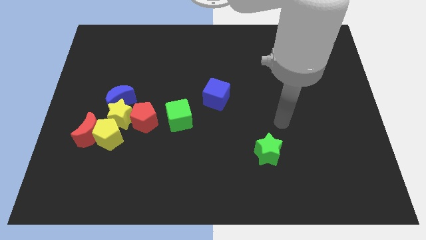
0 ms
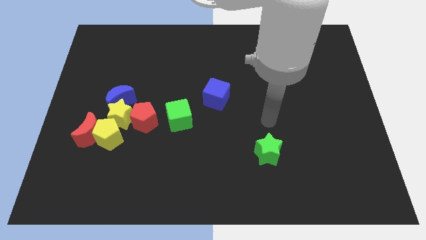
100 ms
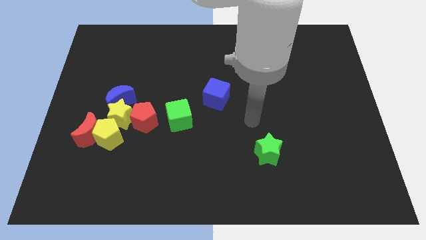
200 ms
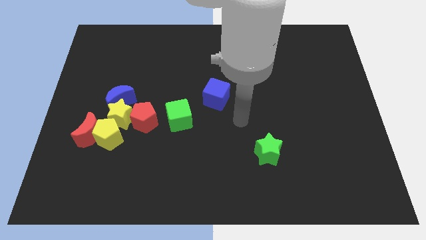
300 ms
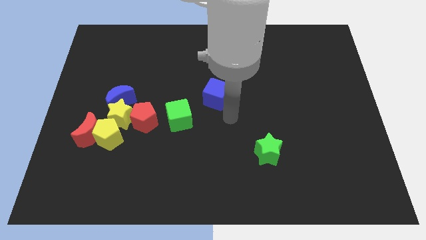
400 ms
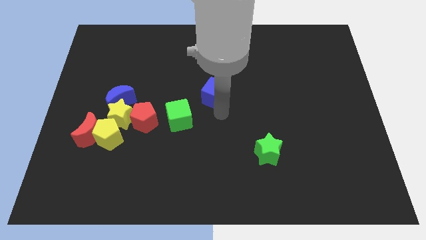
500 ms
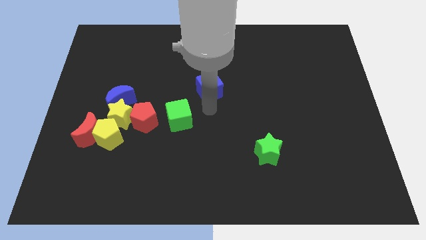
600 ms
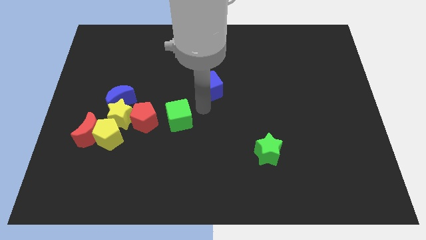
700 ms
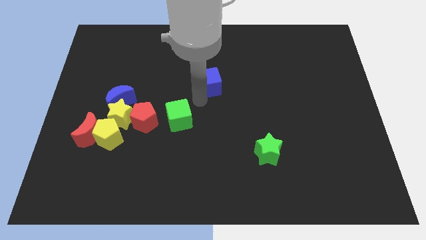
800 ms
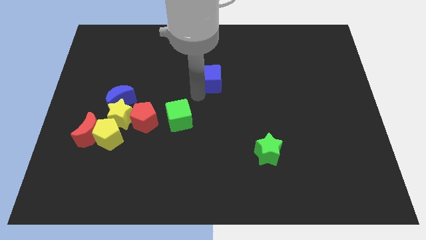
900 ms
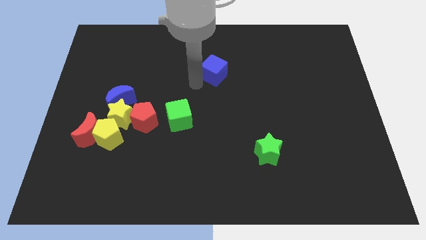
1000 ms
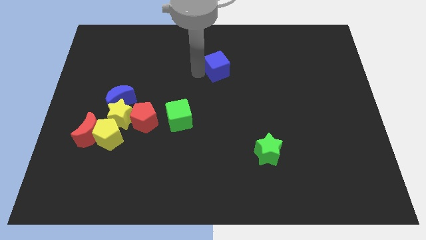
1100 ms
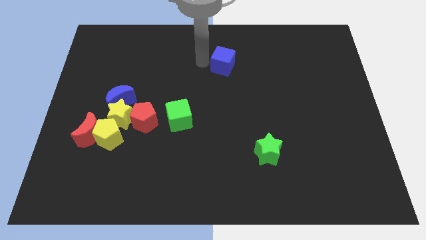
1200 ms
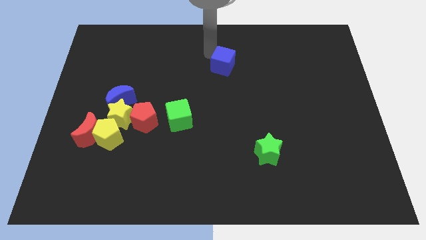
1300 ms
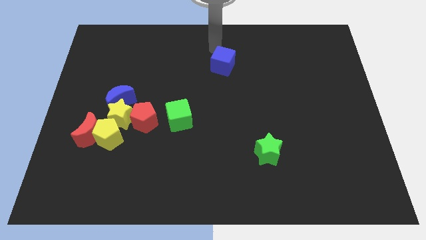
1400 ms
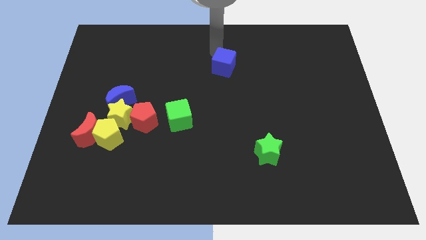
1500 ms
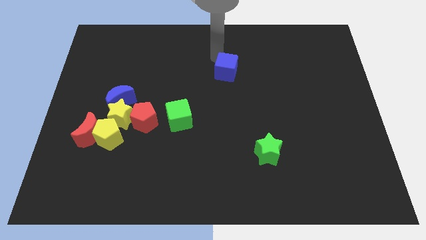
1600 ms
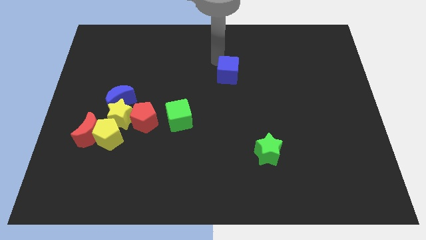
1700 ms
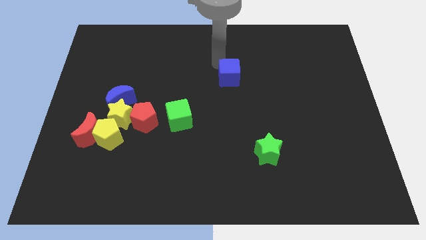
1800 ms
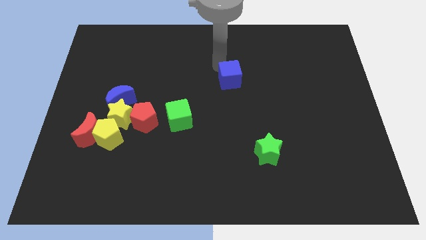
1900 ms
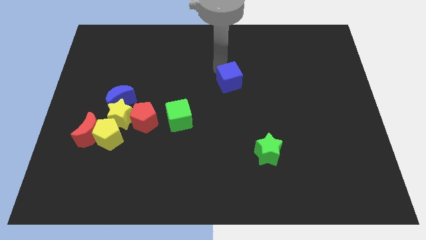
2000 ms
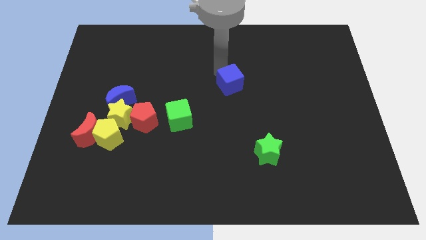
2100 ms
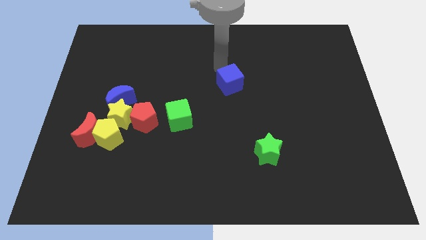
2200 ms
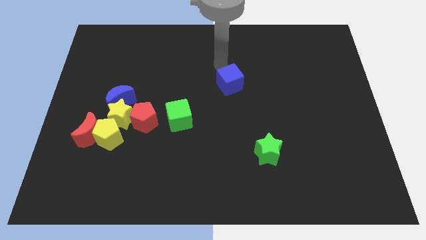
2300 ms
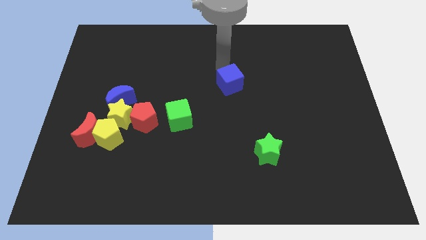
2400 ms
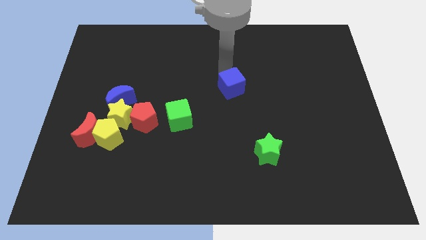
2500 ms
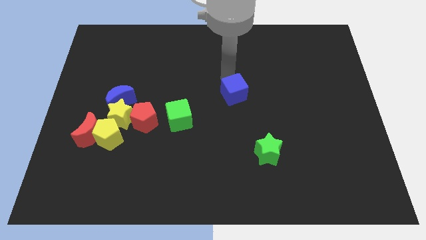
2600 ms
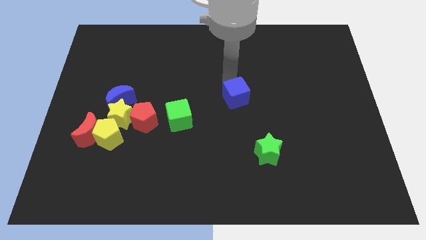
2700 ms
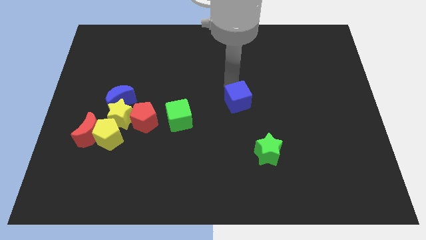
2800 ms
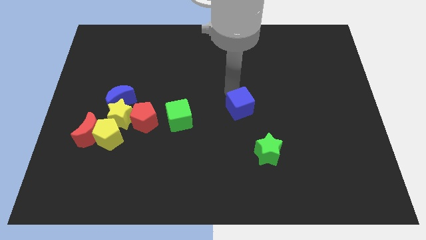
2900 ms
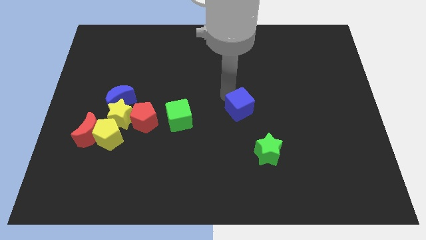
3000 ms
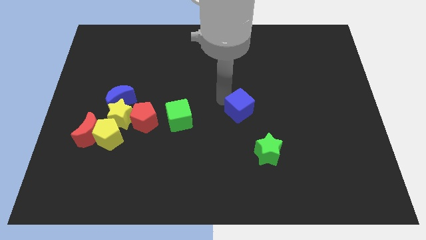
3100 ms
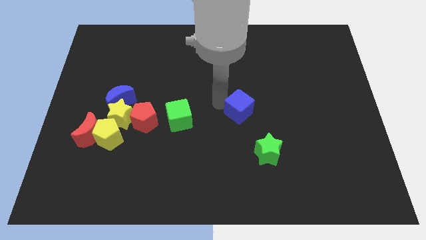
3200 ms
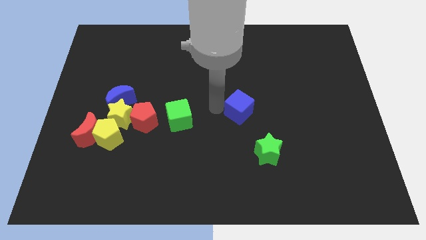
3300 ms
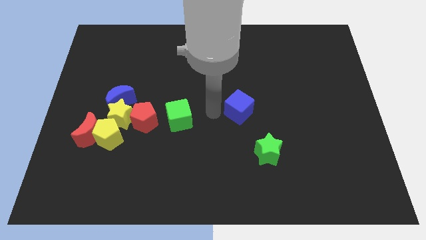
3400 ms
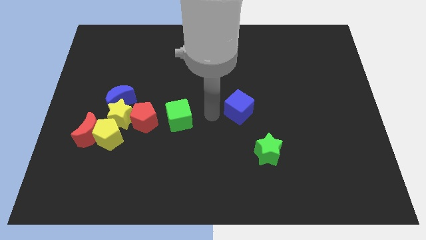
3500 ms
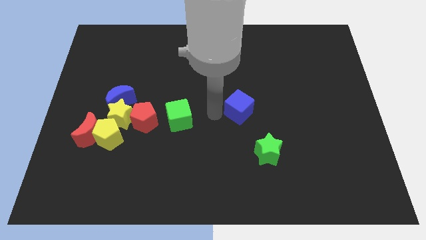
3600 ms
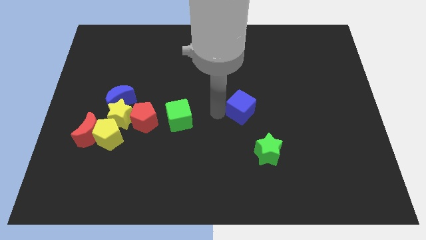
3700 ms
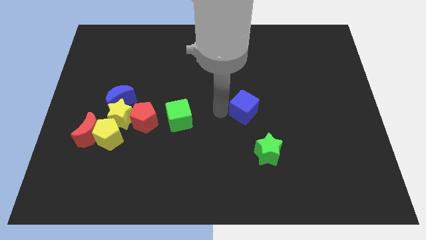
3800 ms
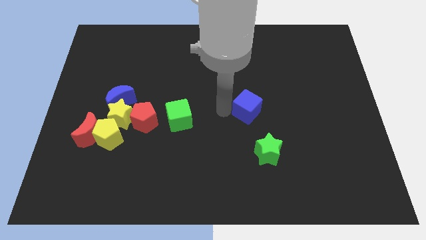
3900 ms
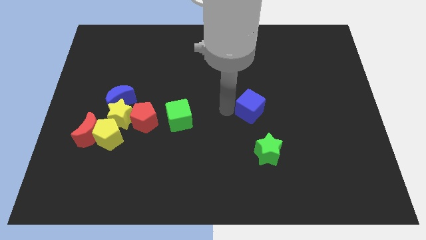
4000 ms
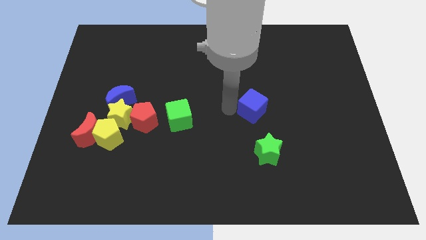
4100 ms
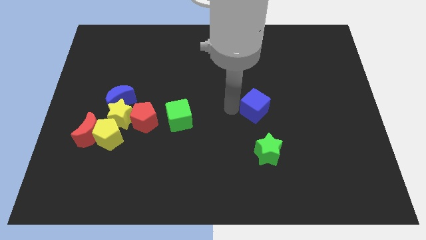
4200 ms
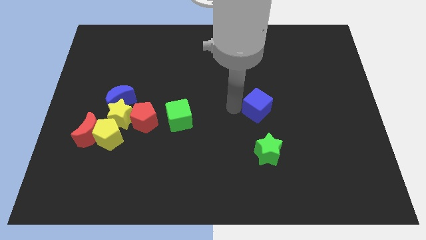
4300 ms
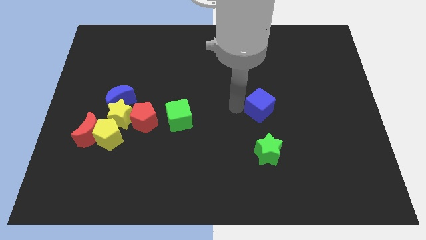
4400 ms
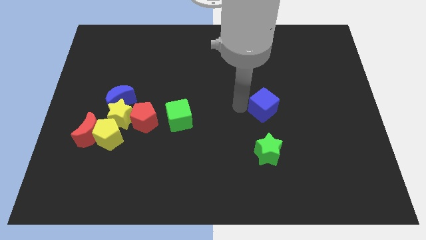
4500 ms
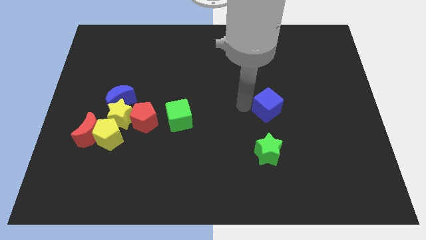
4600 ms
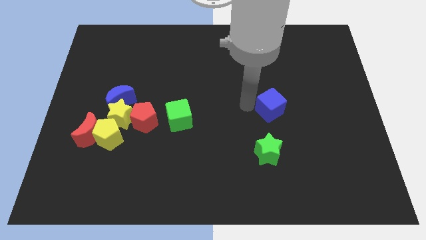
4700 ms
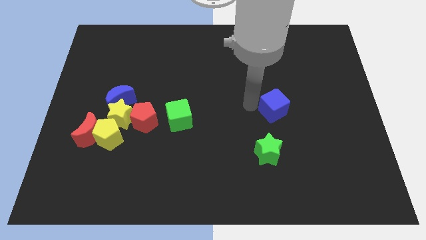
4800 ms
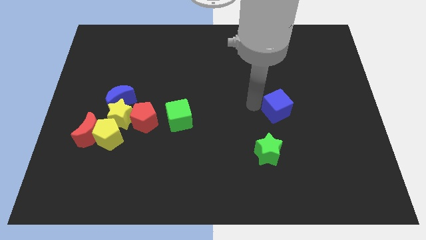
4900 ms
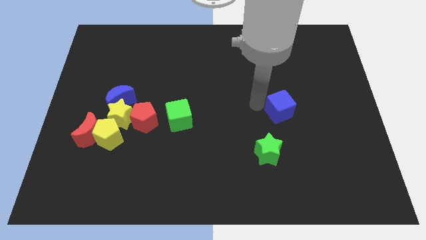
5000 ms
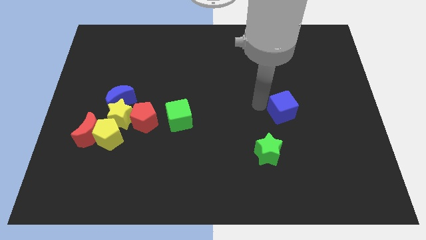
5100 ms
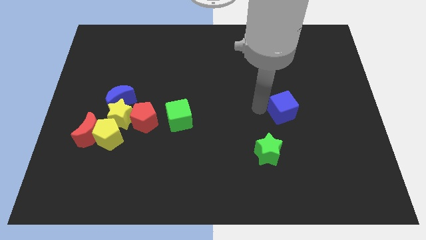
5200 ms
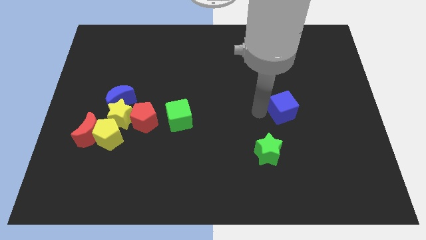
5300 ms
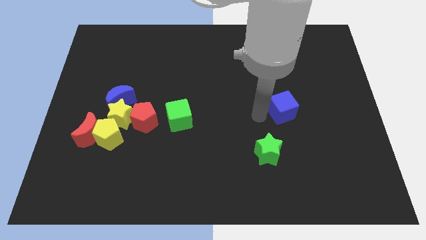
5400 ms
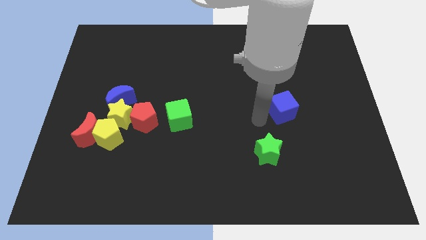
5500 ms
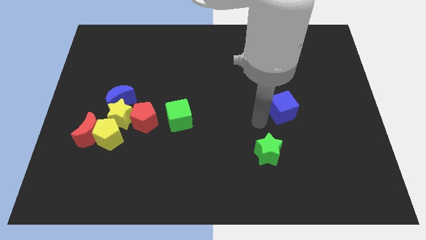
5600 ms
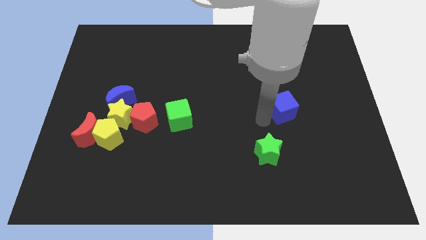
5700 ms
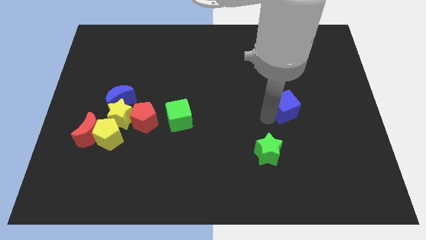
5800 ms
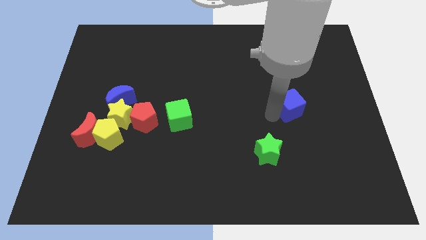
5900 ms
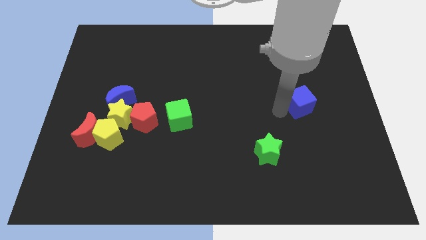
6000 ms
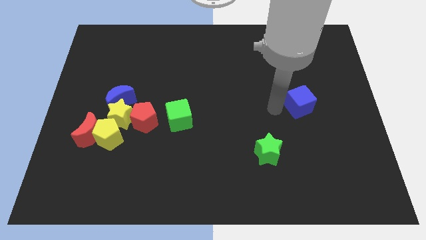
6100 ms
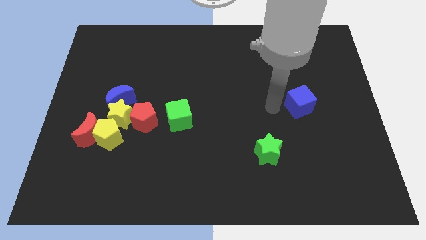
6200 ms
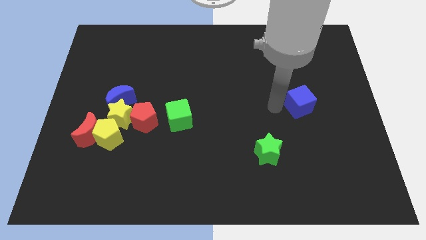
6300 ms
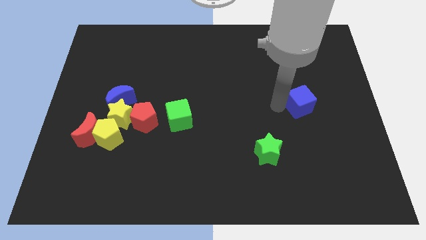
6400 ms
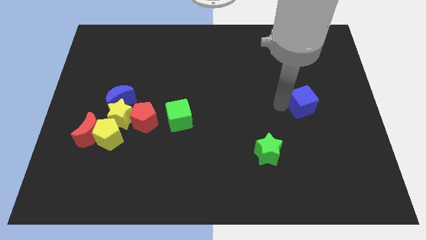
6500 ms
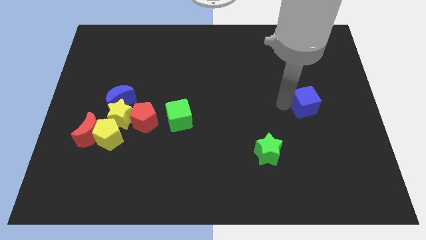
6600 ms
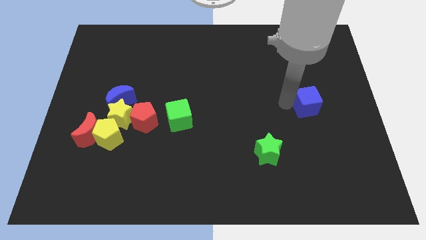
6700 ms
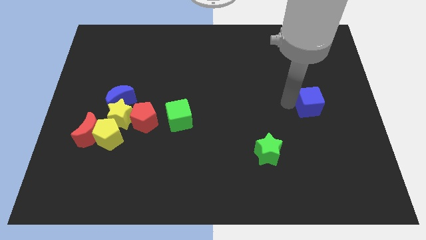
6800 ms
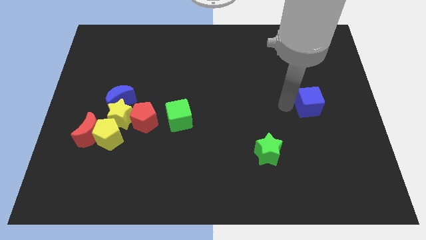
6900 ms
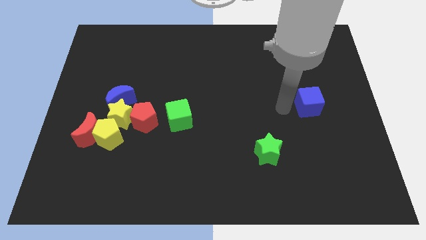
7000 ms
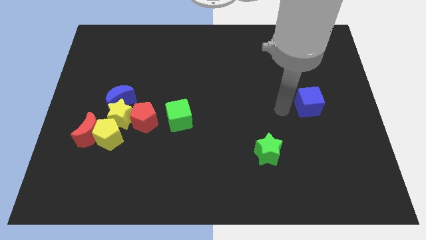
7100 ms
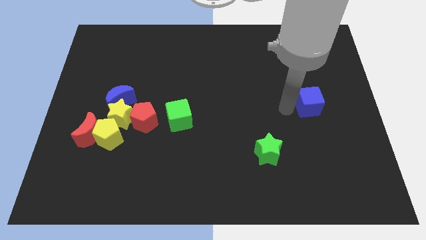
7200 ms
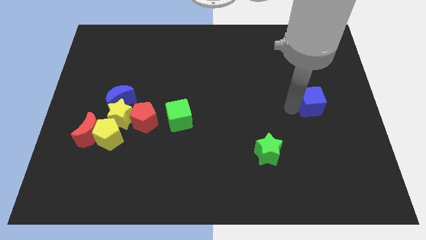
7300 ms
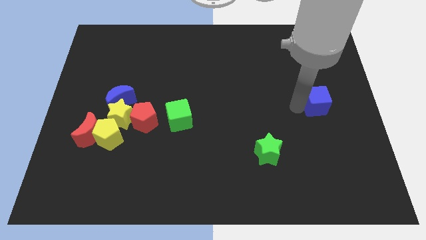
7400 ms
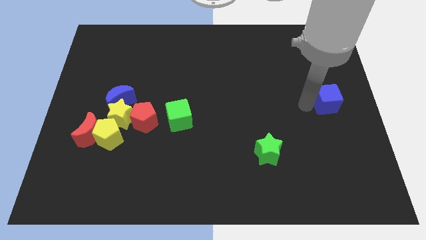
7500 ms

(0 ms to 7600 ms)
slide the blue cube to the right side of the board
